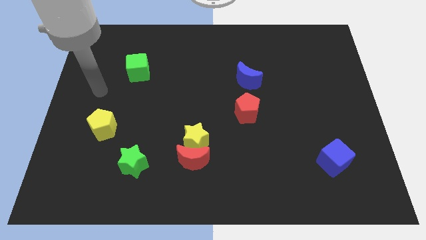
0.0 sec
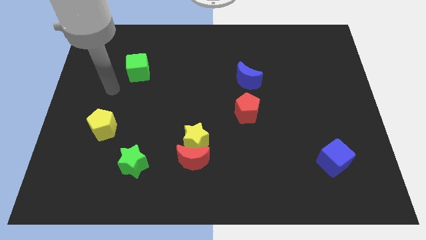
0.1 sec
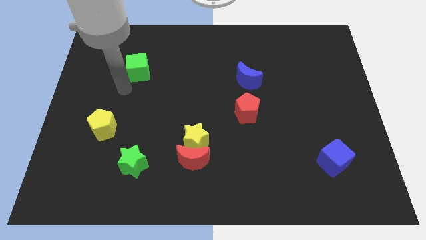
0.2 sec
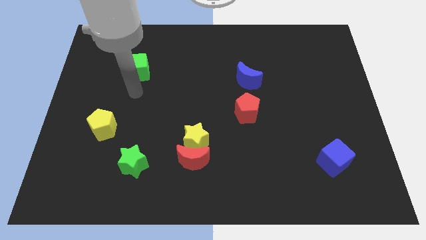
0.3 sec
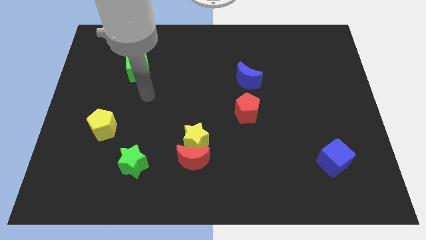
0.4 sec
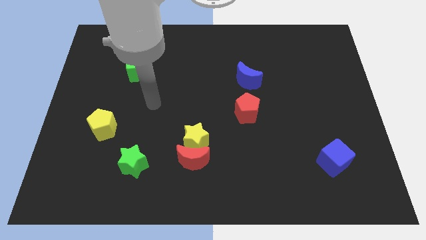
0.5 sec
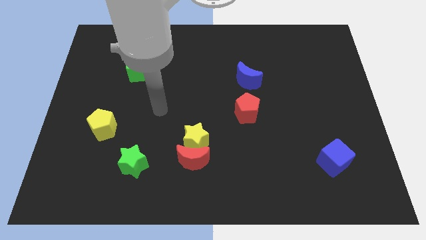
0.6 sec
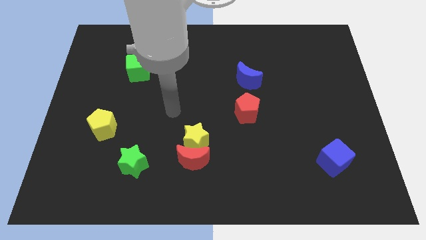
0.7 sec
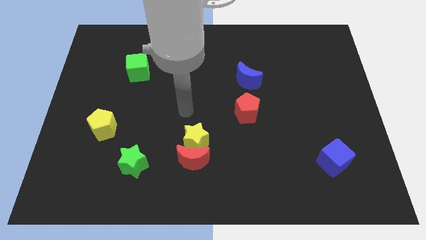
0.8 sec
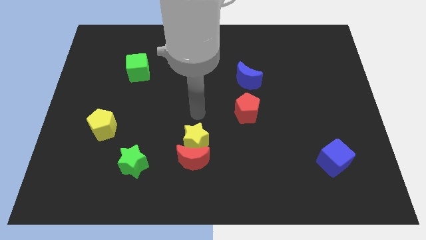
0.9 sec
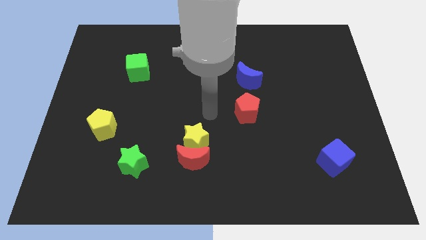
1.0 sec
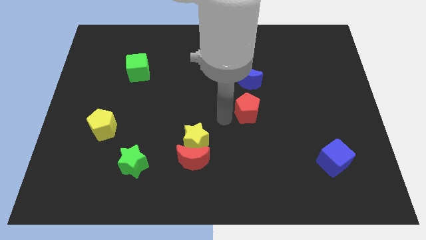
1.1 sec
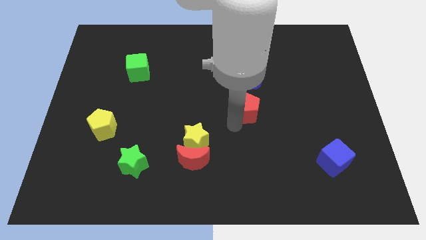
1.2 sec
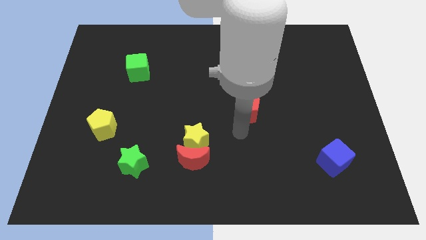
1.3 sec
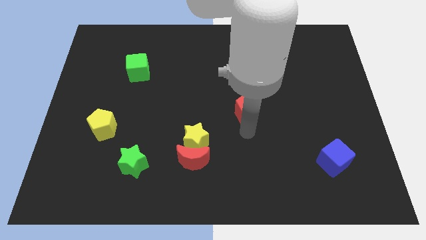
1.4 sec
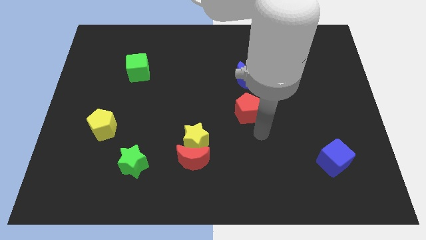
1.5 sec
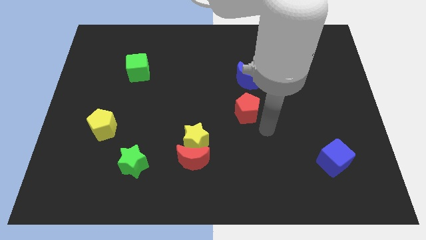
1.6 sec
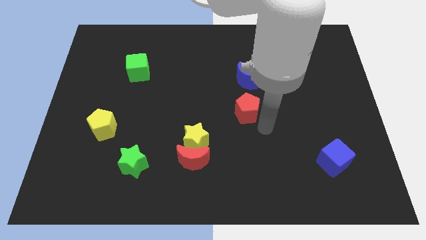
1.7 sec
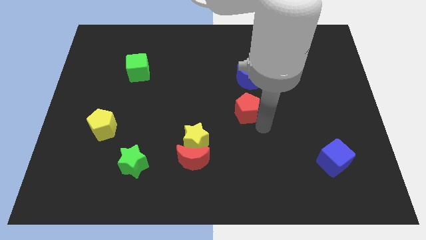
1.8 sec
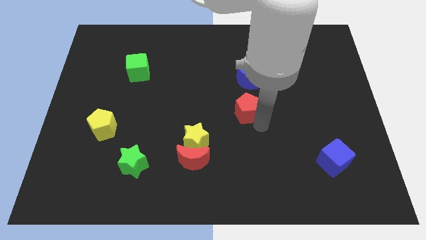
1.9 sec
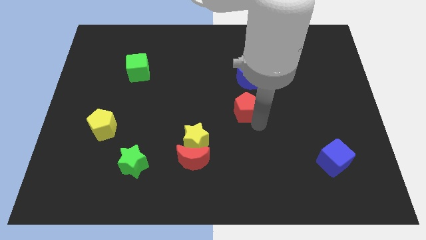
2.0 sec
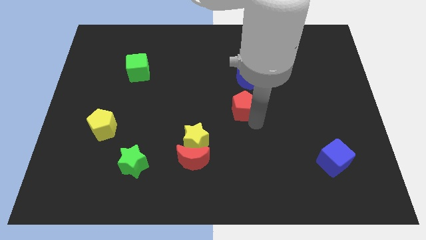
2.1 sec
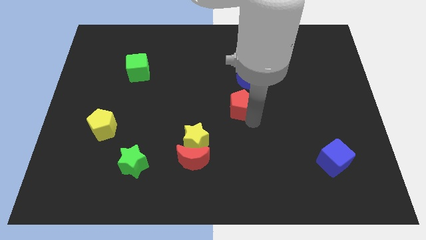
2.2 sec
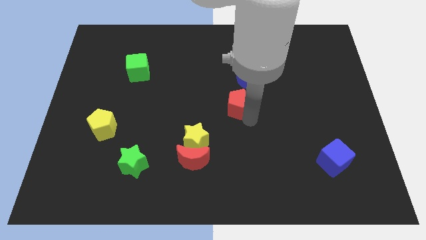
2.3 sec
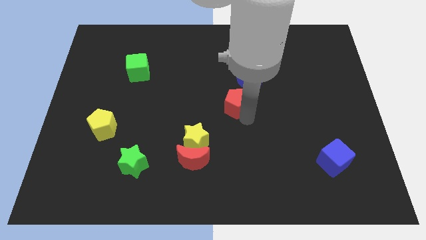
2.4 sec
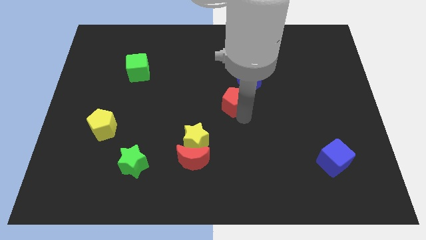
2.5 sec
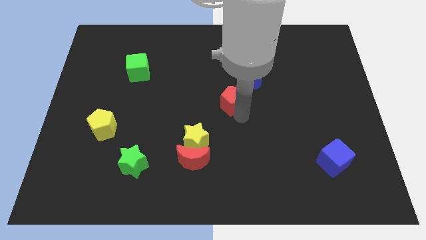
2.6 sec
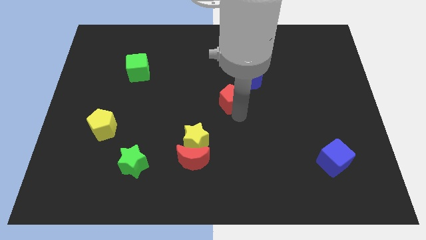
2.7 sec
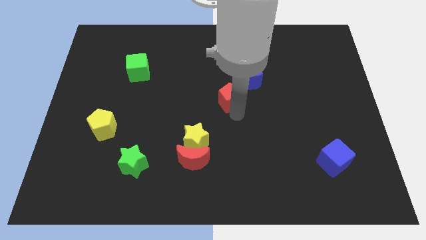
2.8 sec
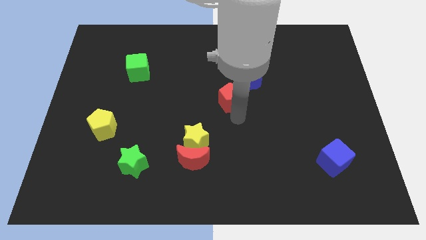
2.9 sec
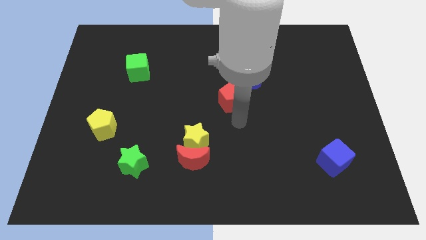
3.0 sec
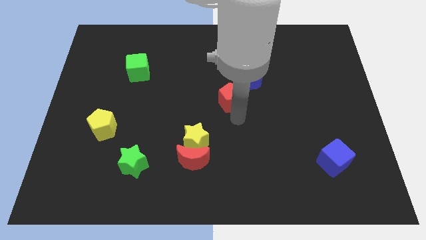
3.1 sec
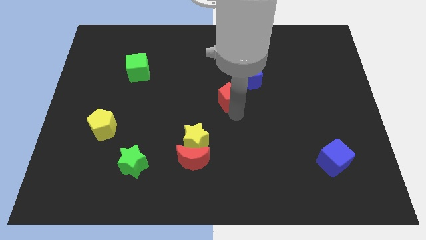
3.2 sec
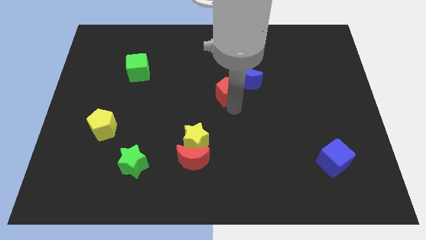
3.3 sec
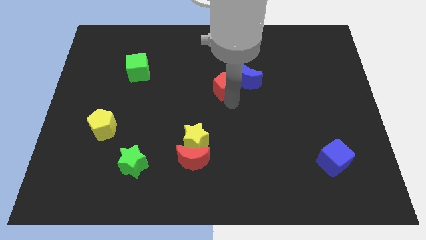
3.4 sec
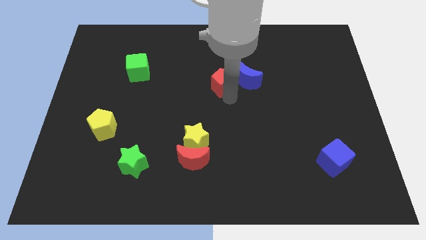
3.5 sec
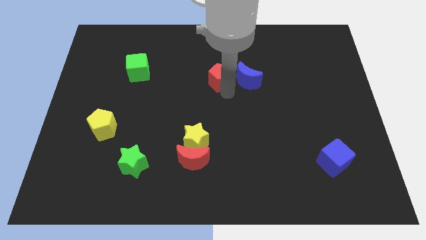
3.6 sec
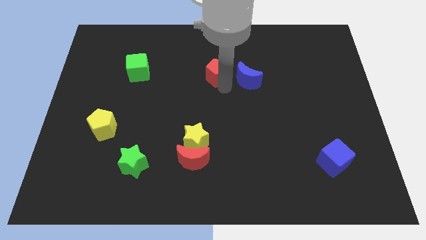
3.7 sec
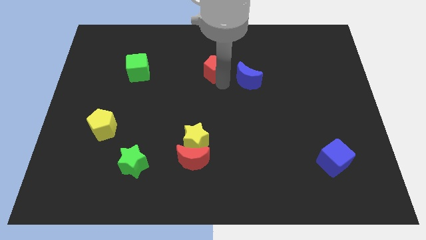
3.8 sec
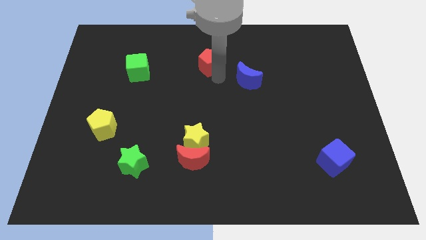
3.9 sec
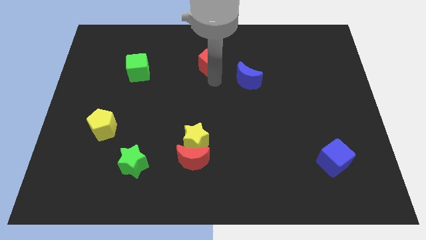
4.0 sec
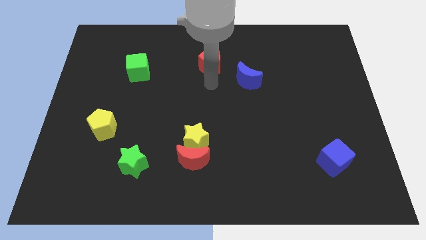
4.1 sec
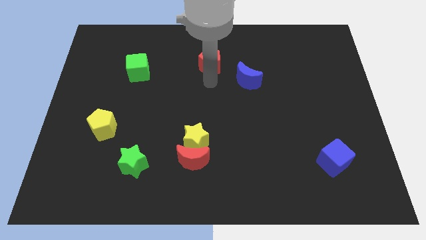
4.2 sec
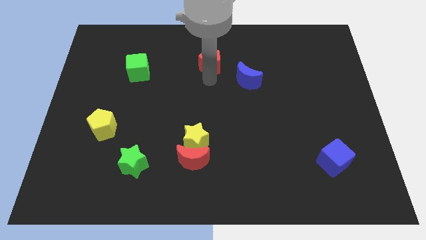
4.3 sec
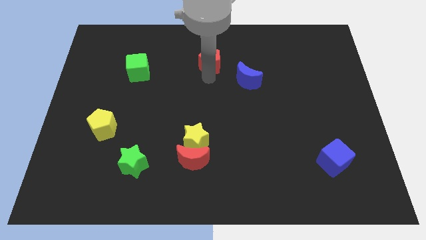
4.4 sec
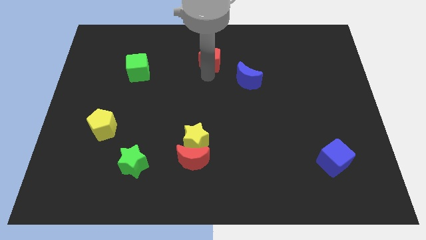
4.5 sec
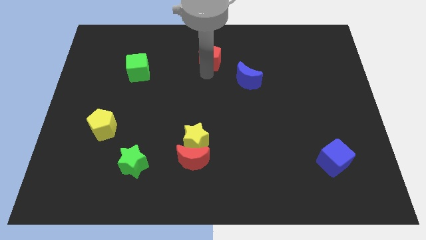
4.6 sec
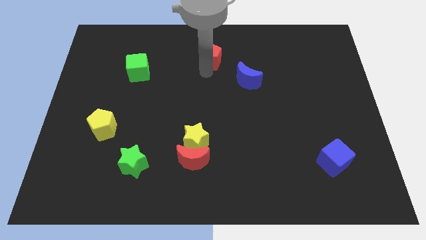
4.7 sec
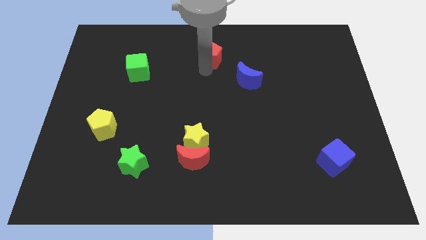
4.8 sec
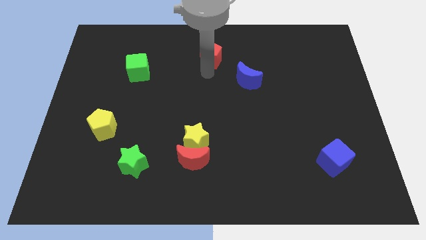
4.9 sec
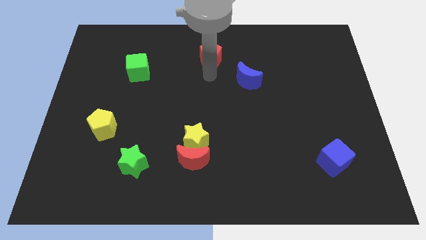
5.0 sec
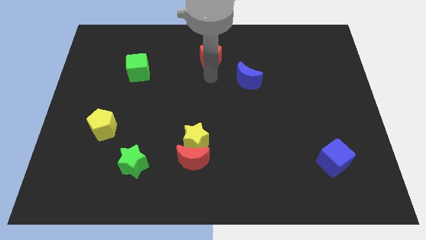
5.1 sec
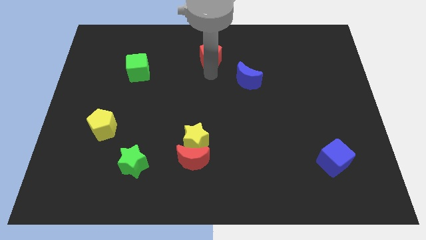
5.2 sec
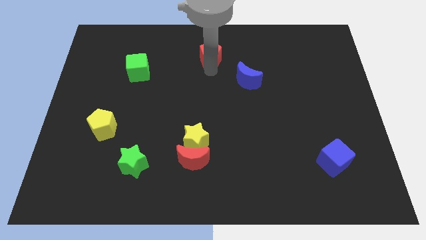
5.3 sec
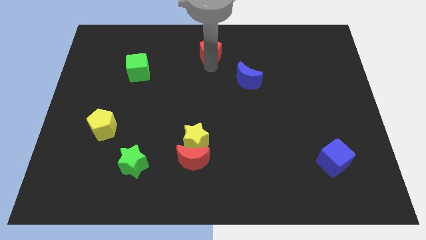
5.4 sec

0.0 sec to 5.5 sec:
slide the red pentagon to the top side
